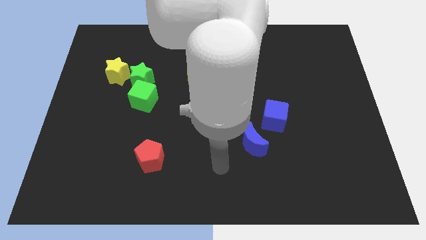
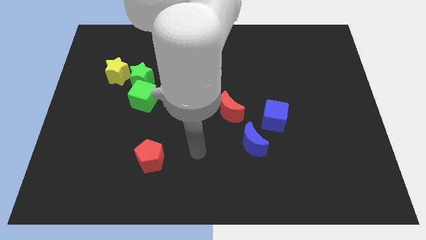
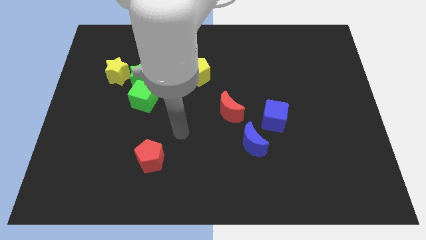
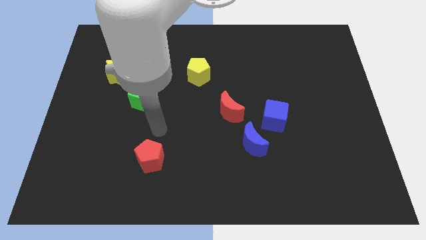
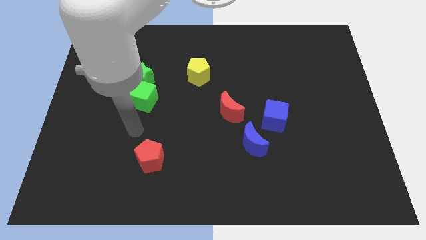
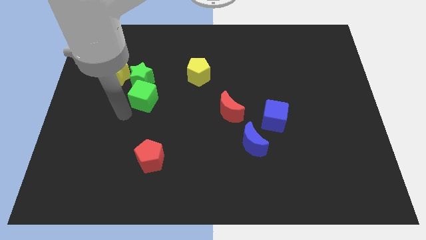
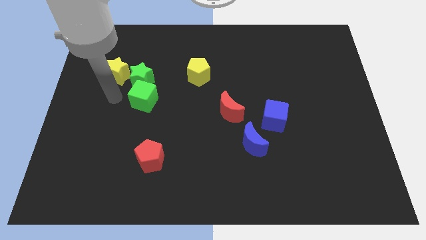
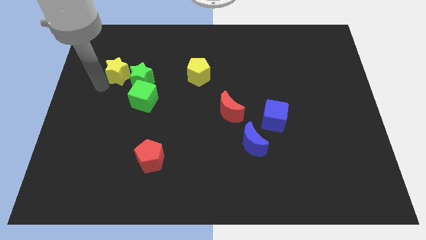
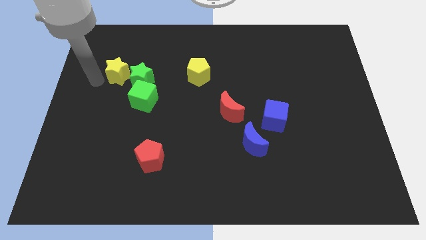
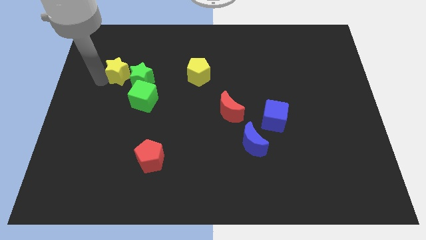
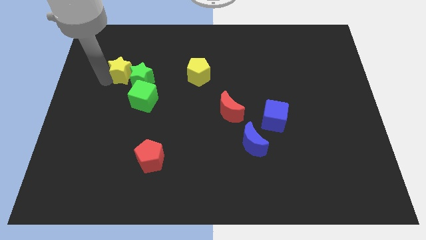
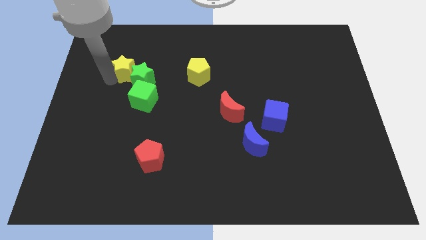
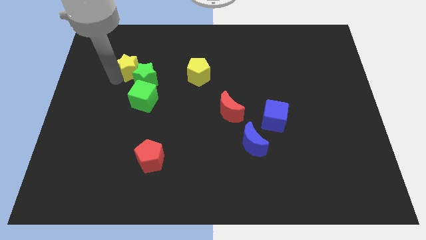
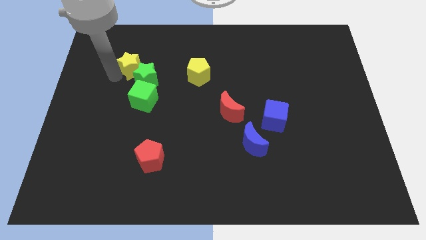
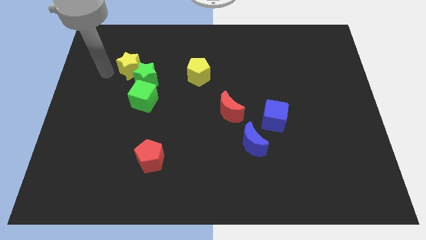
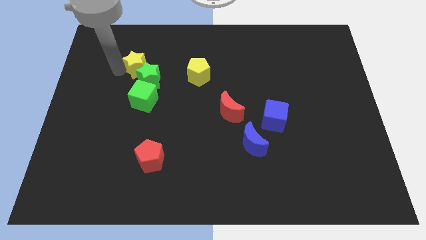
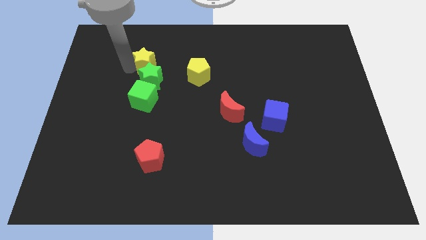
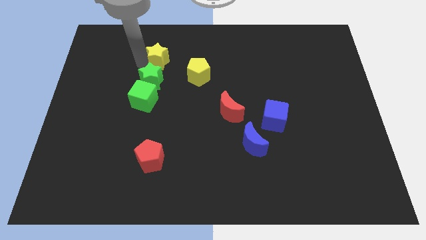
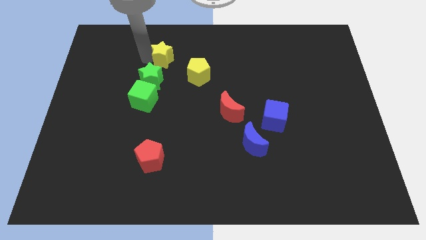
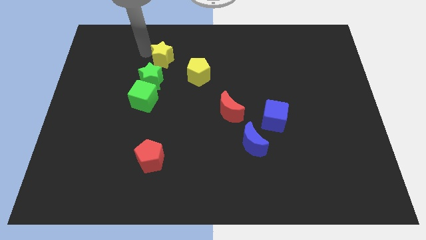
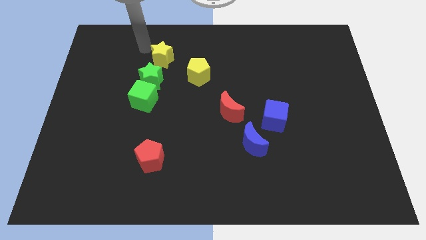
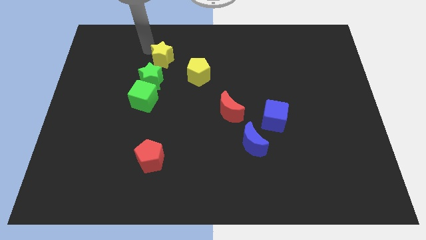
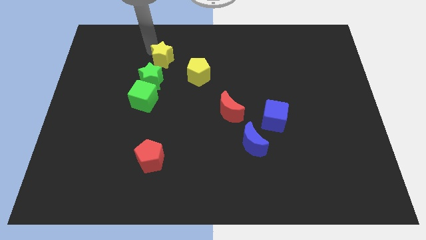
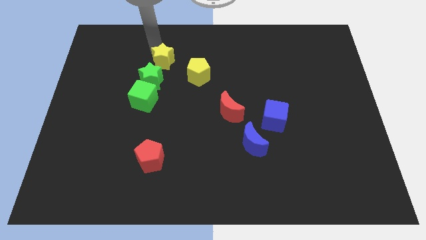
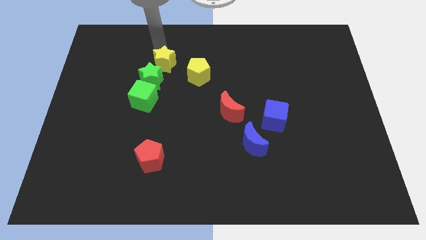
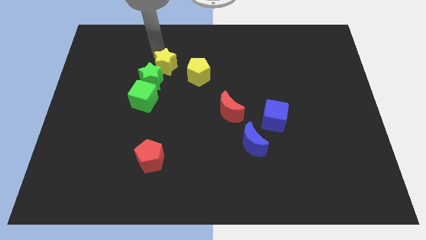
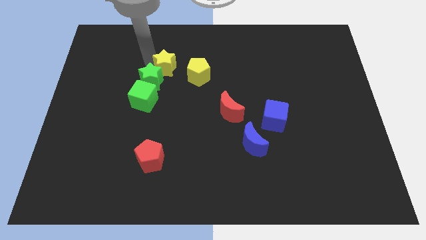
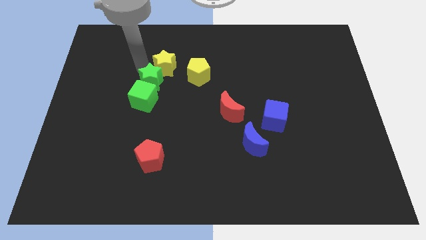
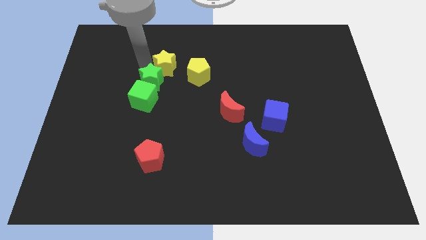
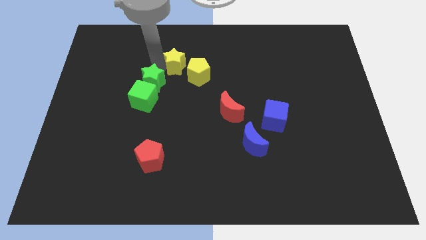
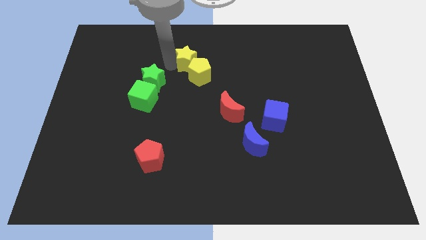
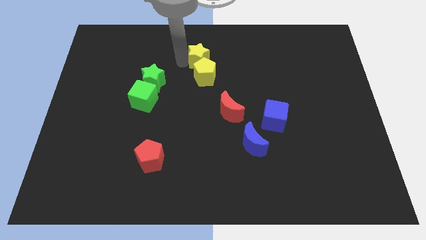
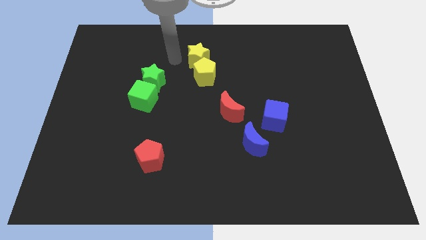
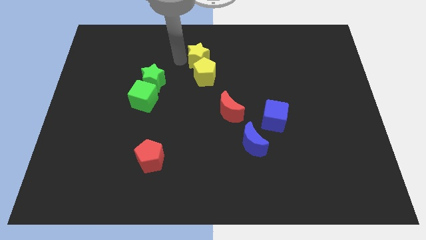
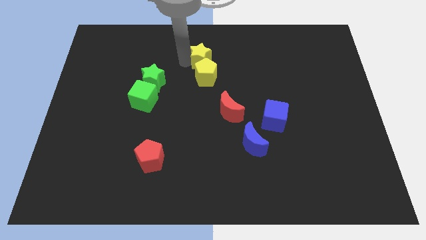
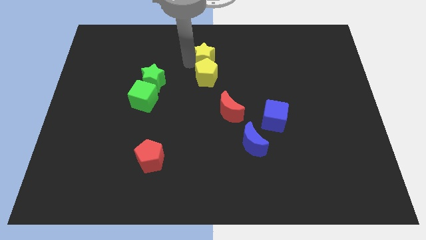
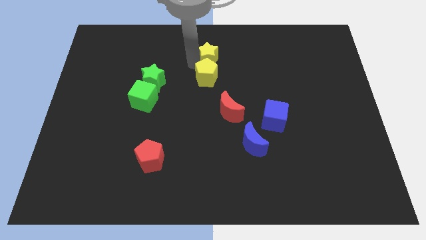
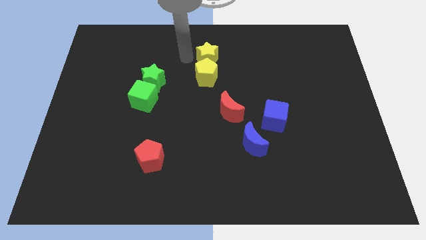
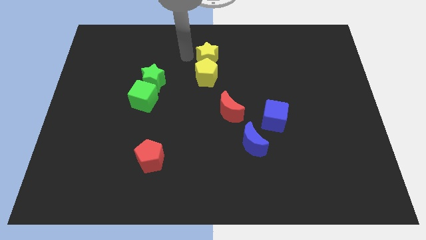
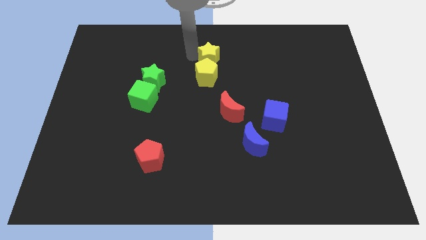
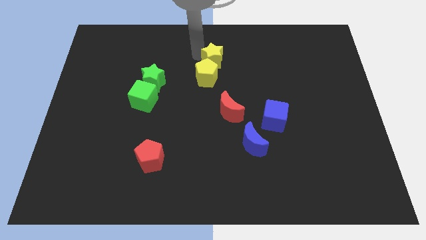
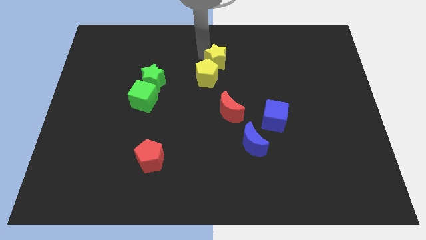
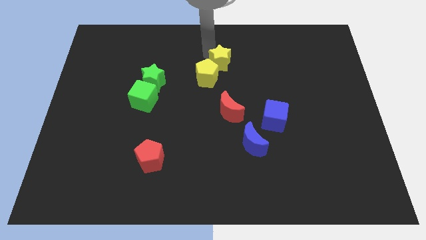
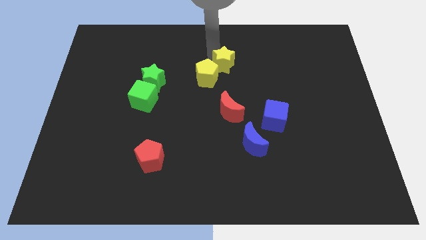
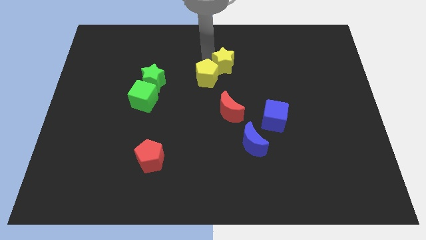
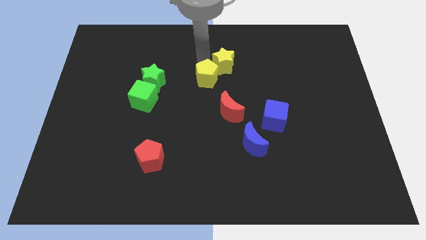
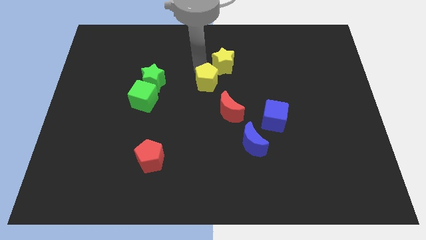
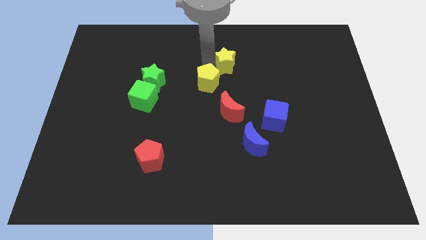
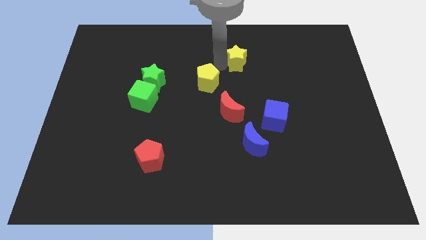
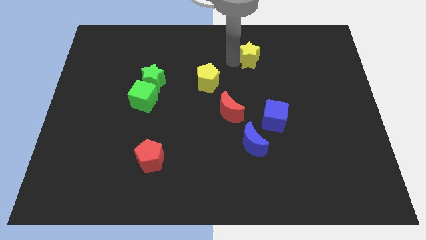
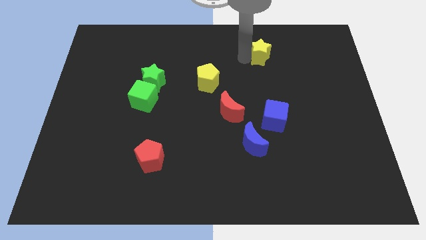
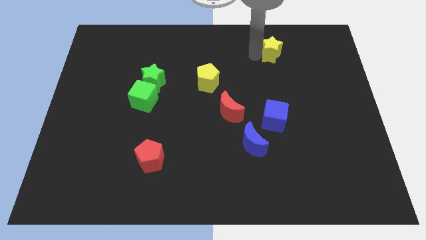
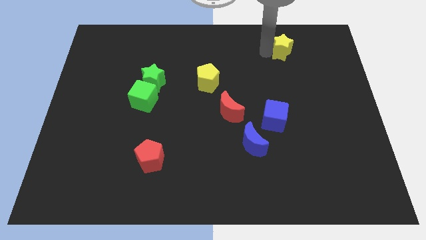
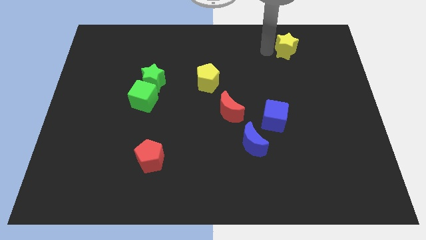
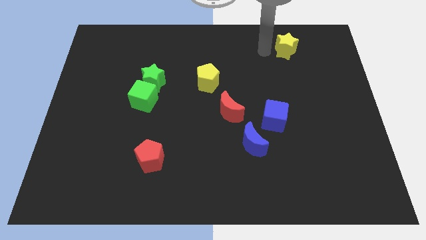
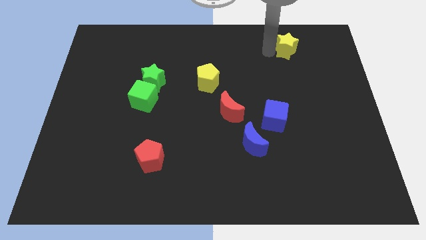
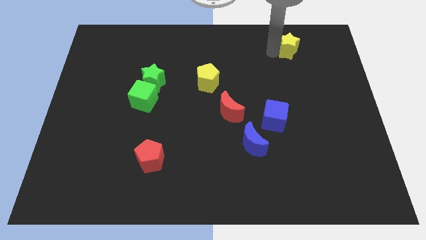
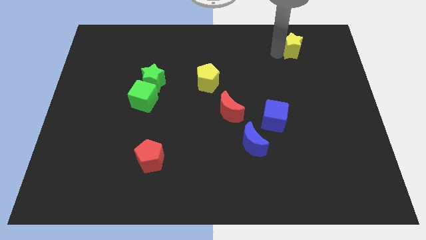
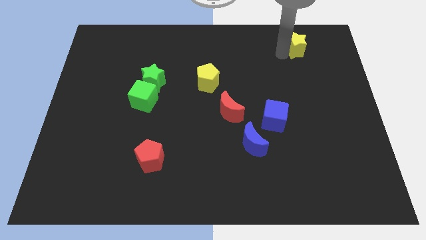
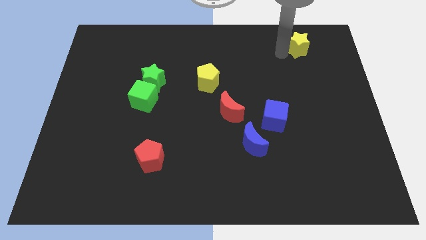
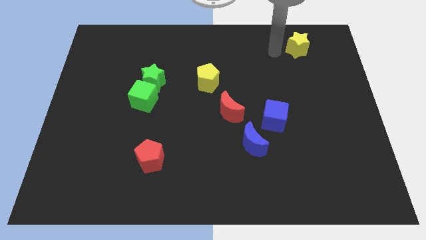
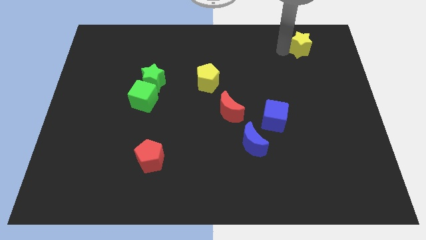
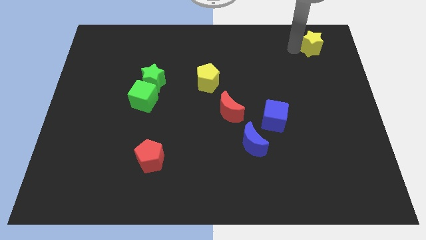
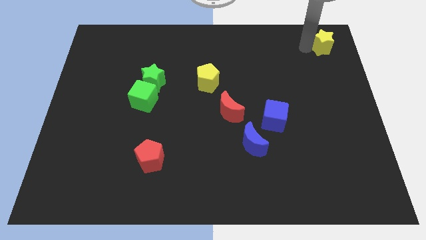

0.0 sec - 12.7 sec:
put the yellow star to the top right of the board

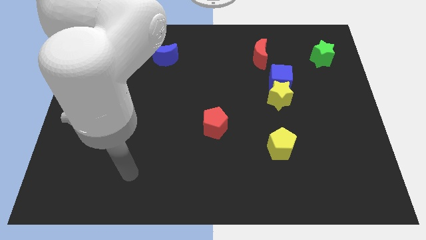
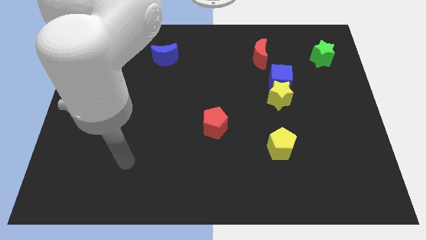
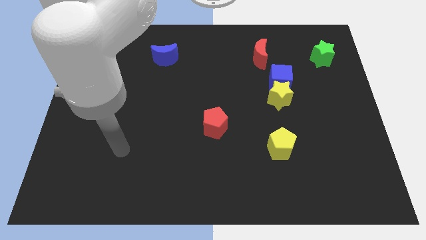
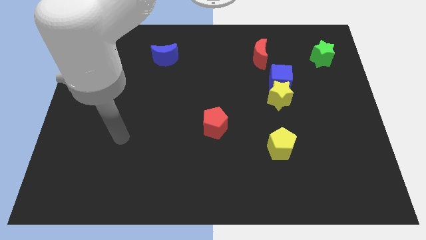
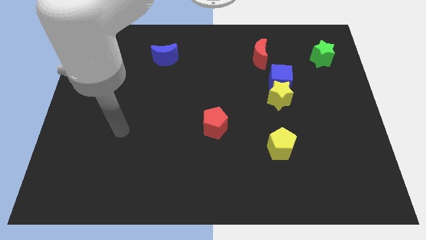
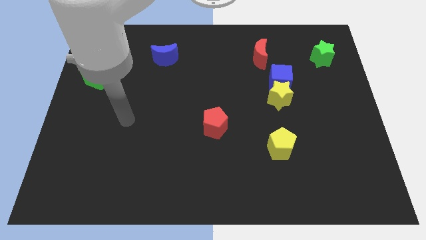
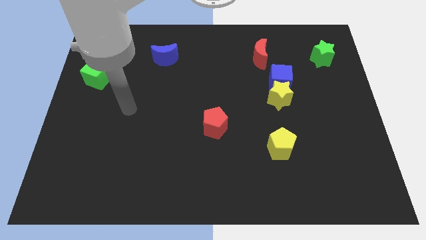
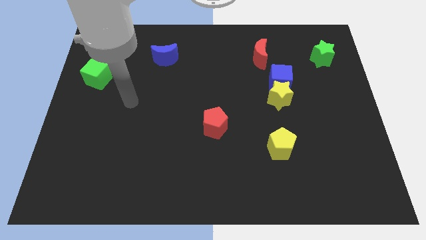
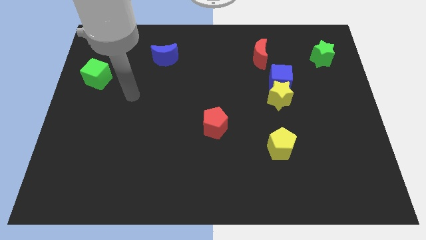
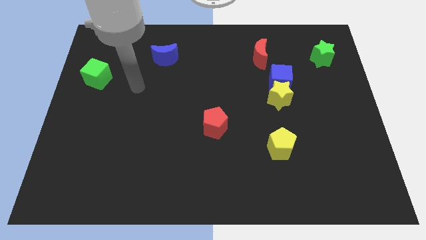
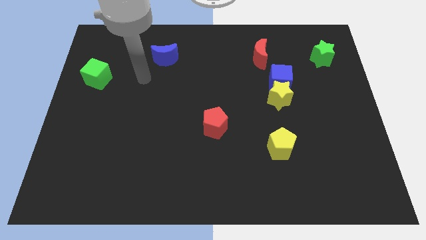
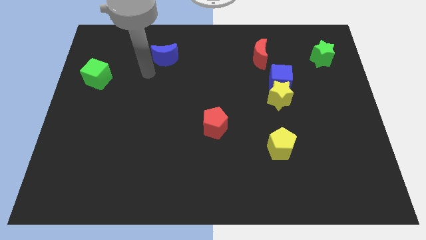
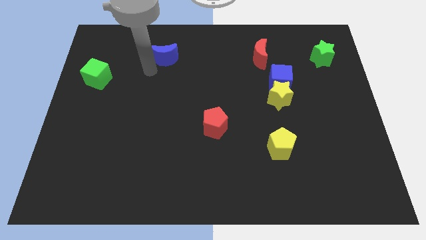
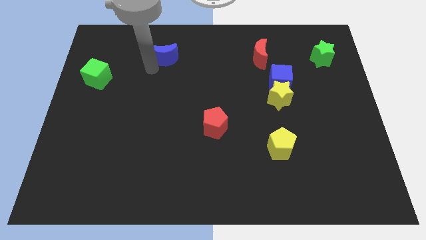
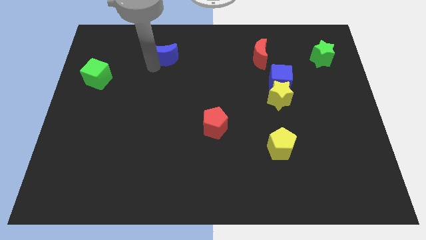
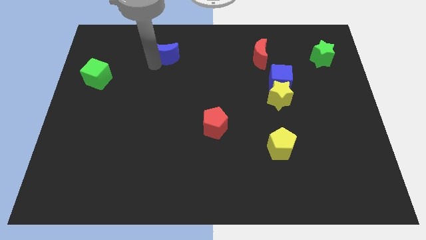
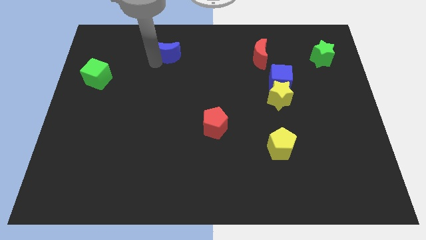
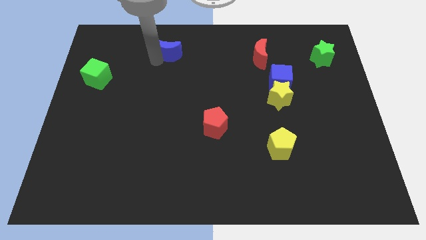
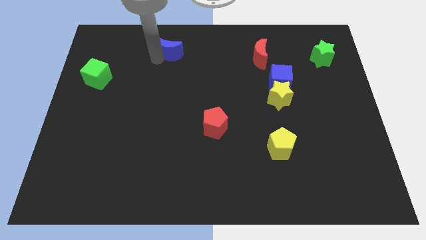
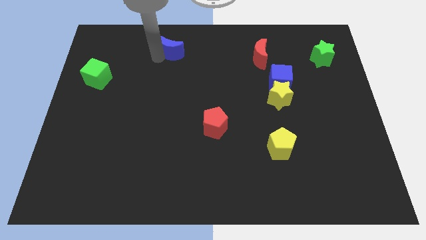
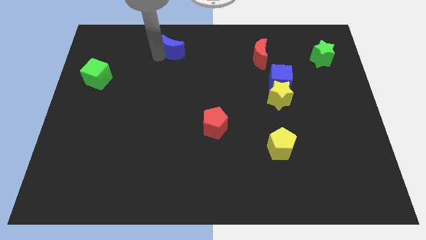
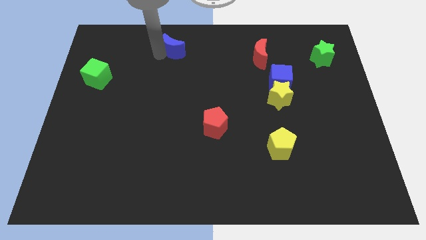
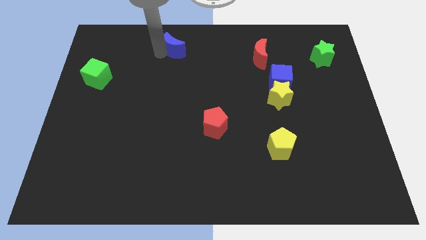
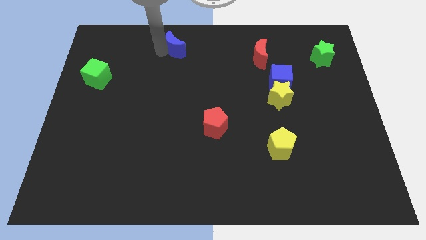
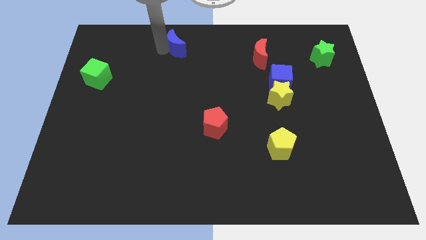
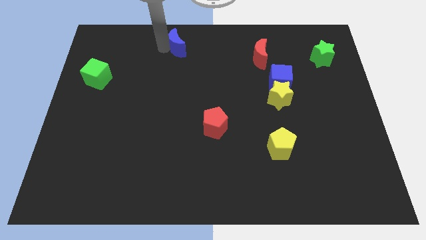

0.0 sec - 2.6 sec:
push the blue moon to the top side
